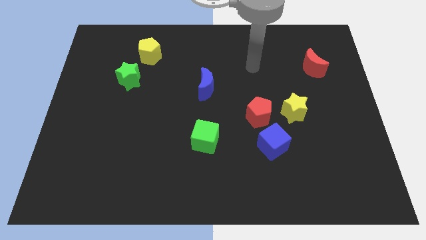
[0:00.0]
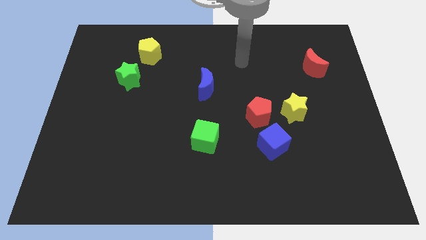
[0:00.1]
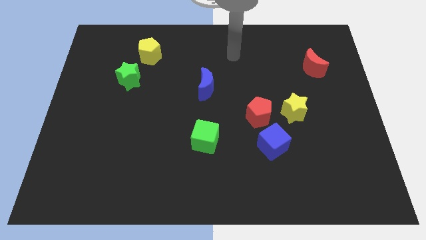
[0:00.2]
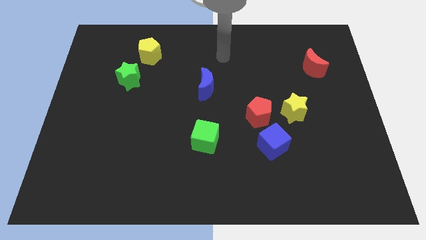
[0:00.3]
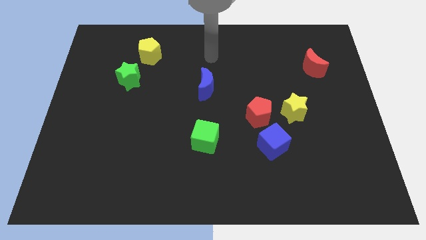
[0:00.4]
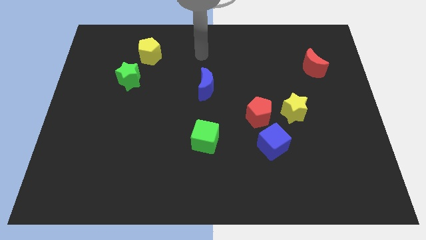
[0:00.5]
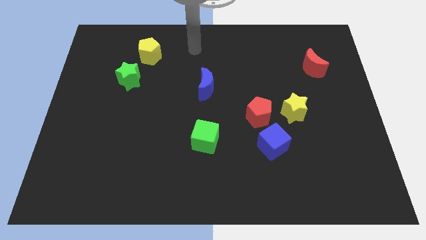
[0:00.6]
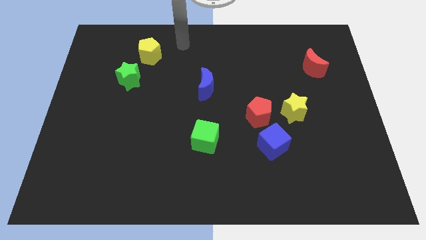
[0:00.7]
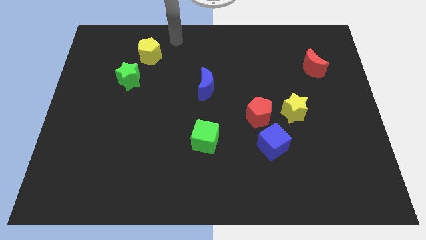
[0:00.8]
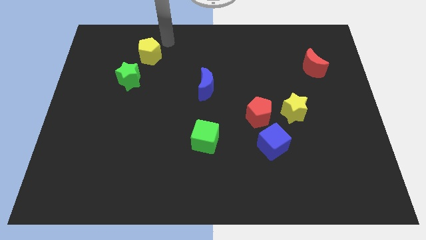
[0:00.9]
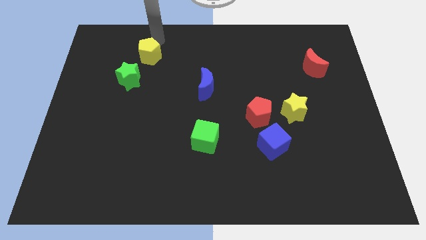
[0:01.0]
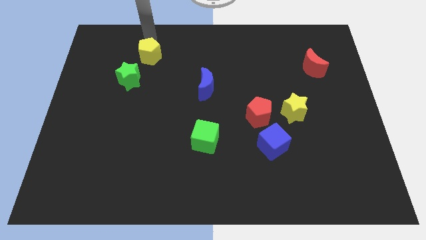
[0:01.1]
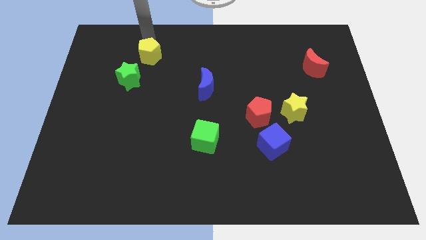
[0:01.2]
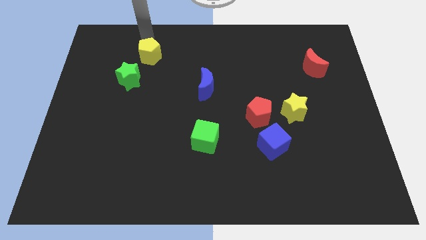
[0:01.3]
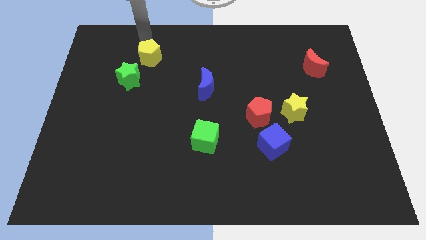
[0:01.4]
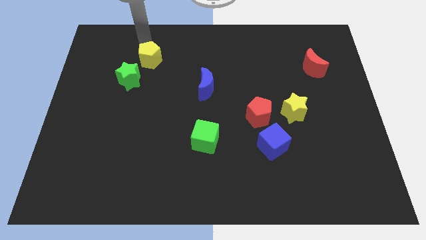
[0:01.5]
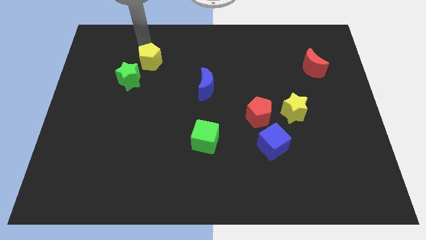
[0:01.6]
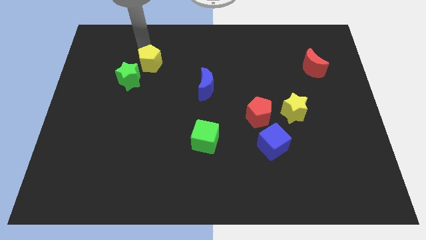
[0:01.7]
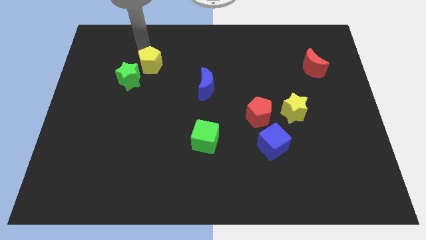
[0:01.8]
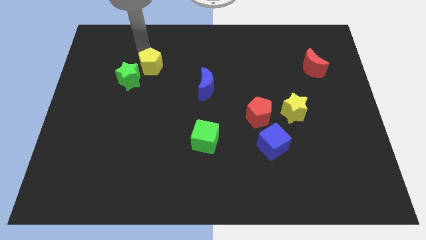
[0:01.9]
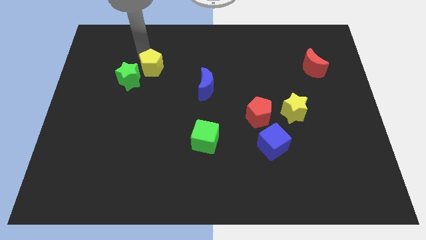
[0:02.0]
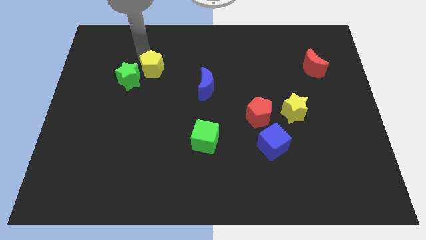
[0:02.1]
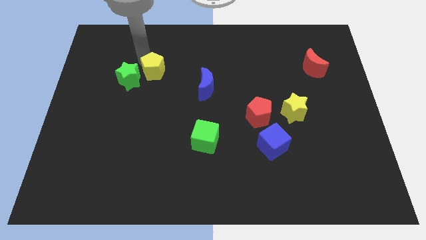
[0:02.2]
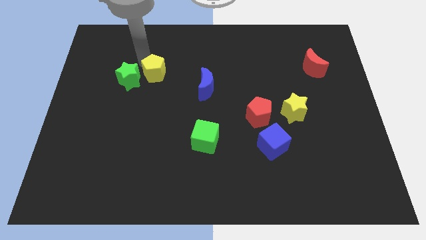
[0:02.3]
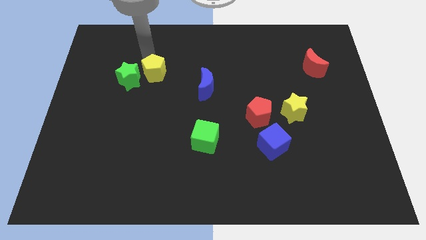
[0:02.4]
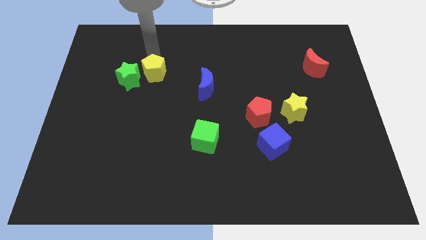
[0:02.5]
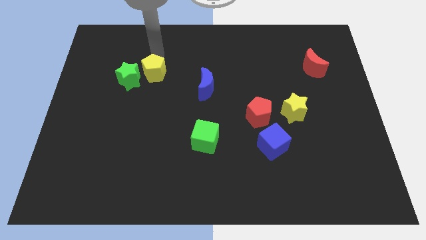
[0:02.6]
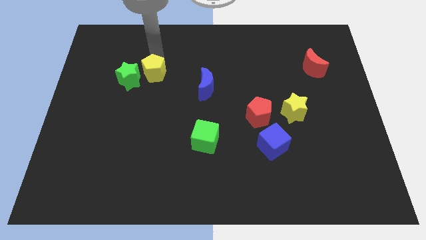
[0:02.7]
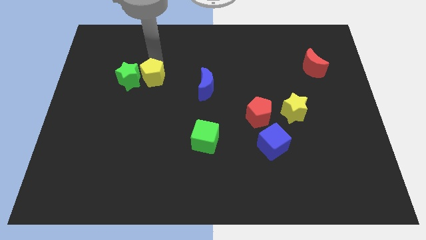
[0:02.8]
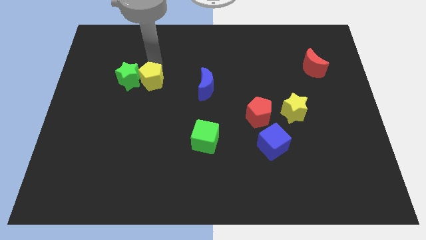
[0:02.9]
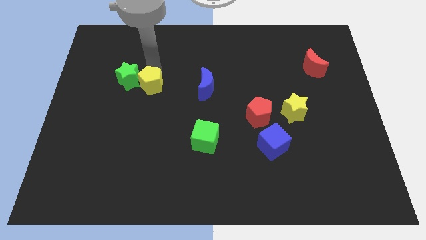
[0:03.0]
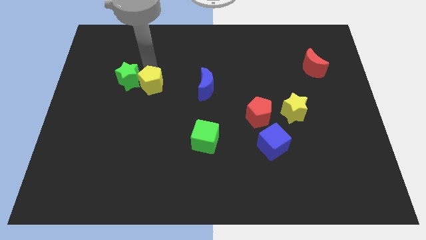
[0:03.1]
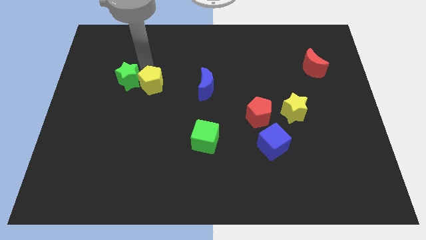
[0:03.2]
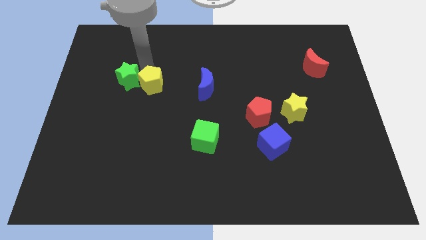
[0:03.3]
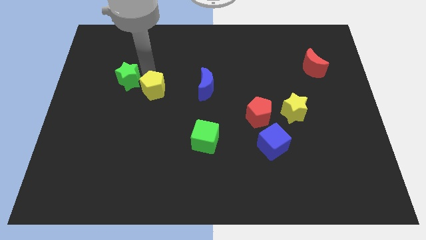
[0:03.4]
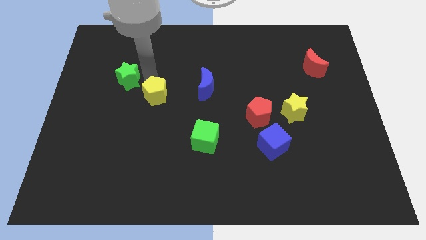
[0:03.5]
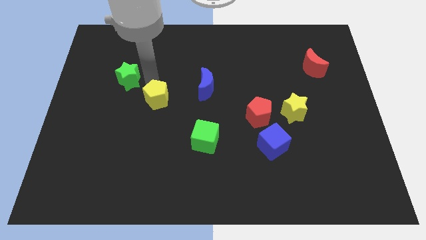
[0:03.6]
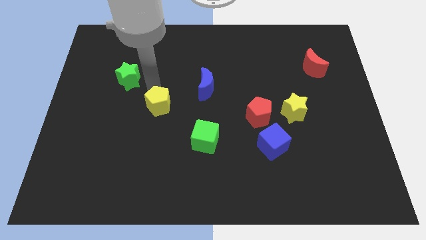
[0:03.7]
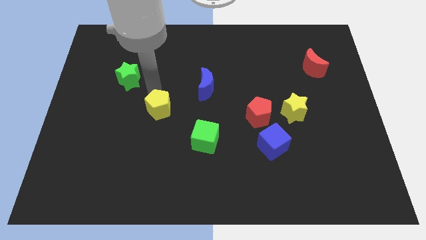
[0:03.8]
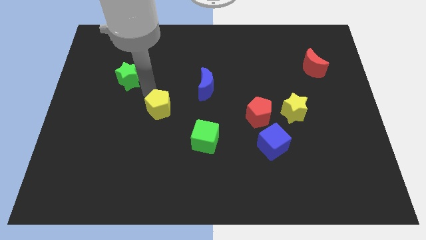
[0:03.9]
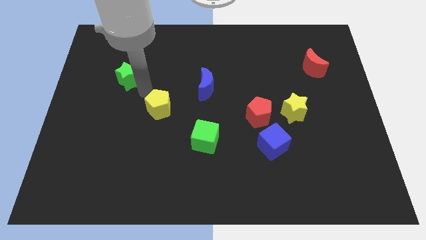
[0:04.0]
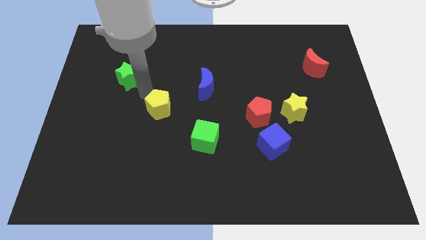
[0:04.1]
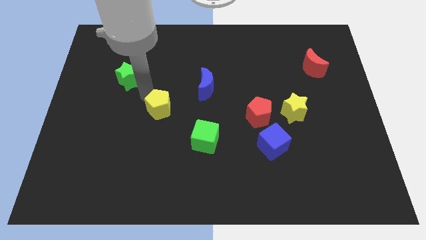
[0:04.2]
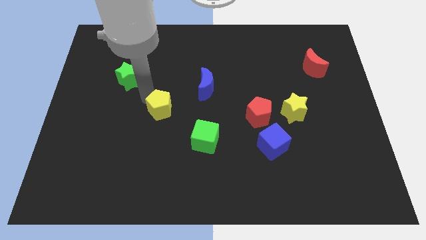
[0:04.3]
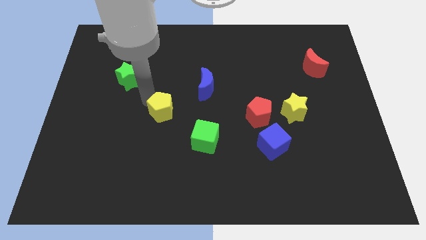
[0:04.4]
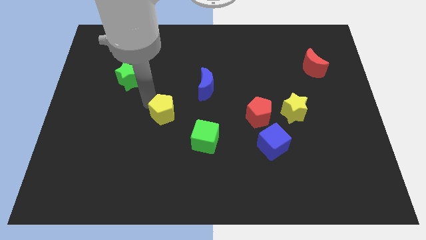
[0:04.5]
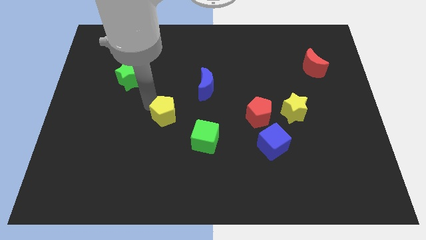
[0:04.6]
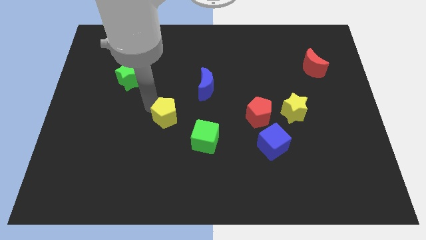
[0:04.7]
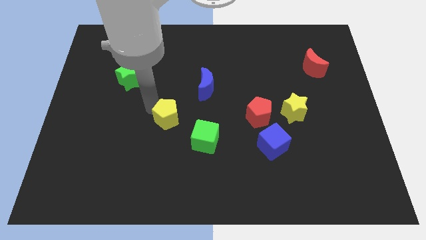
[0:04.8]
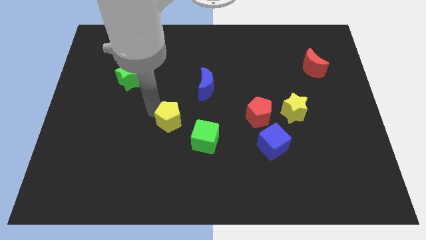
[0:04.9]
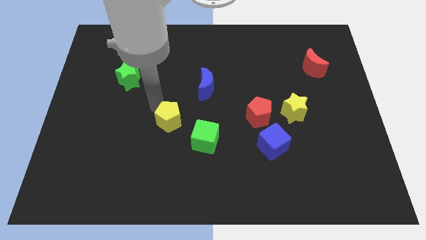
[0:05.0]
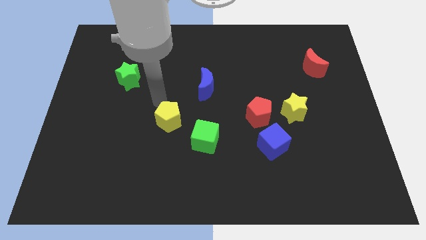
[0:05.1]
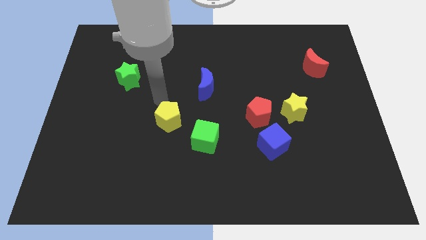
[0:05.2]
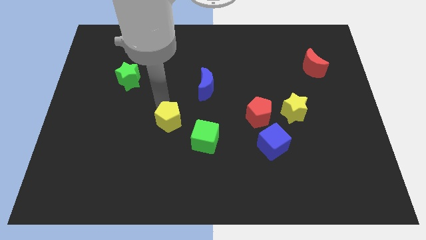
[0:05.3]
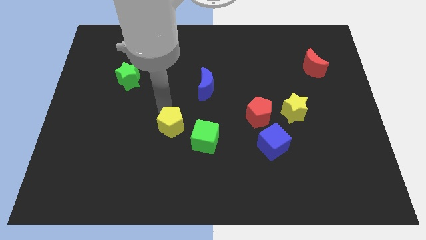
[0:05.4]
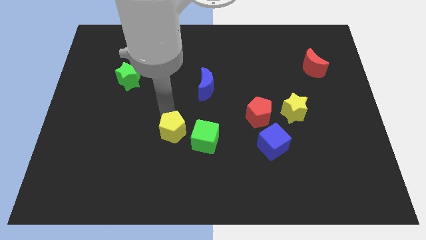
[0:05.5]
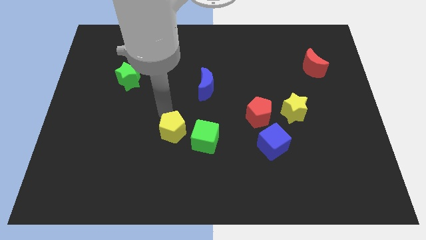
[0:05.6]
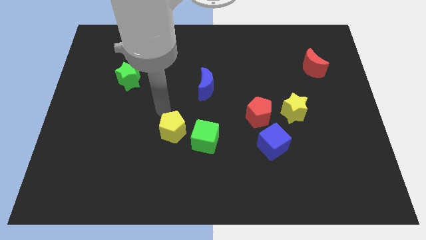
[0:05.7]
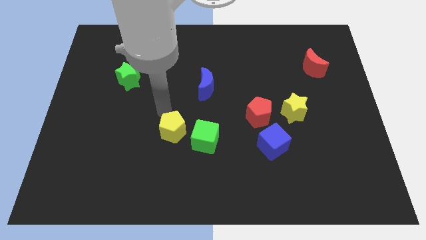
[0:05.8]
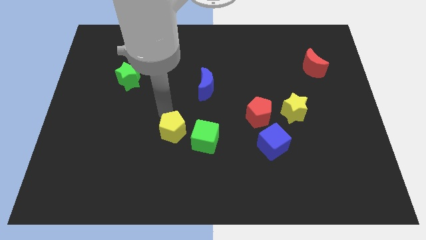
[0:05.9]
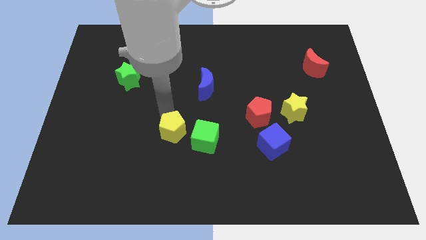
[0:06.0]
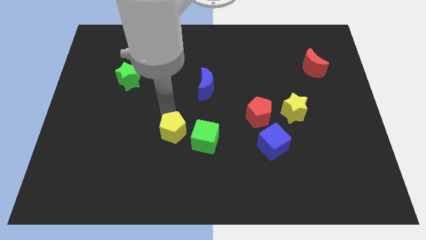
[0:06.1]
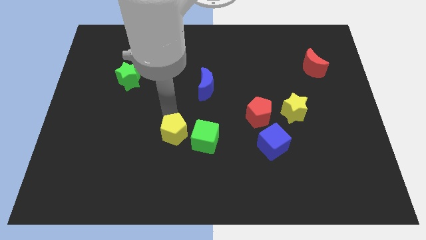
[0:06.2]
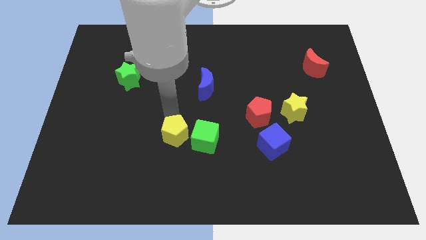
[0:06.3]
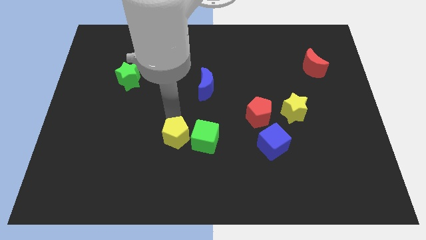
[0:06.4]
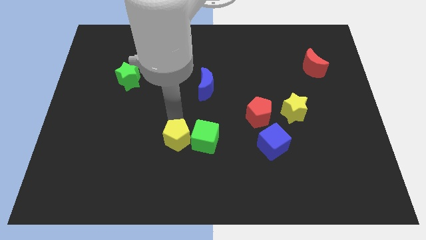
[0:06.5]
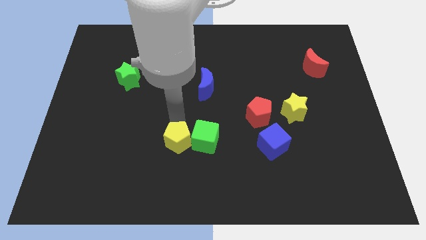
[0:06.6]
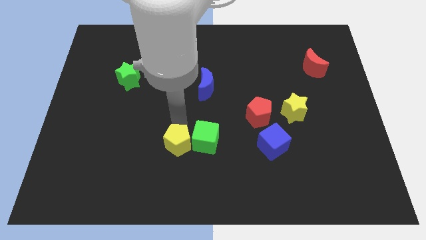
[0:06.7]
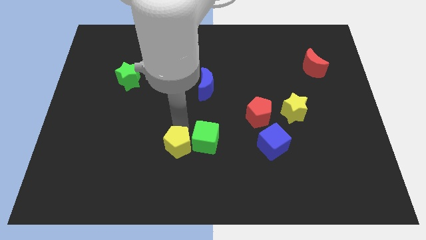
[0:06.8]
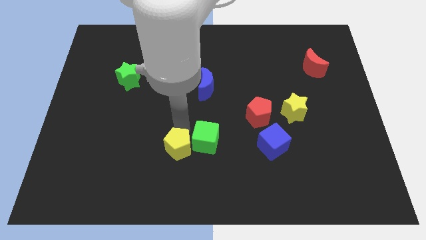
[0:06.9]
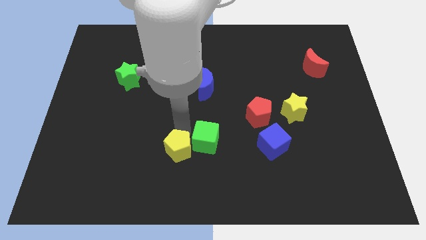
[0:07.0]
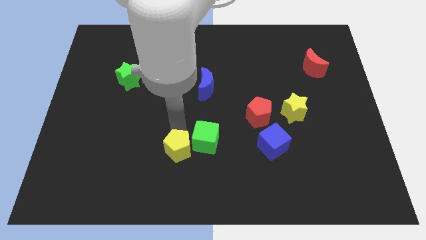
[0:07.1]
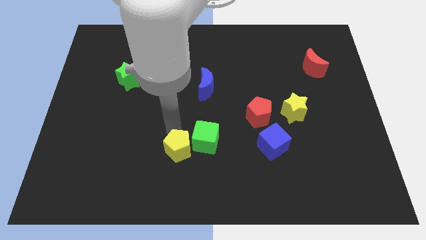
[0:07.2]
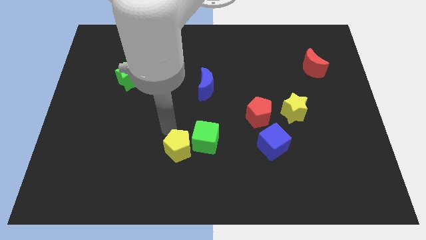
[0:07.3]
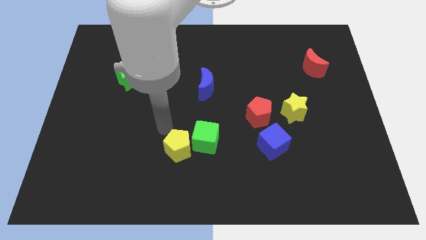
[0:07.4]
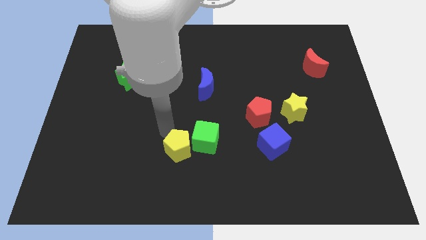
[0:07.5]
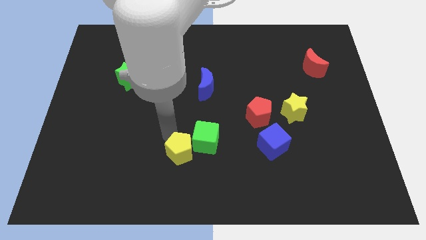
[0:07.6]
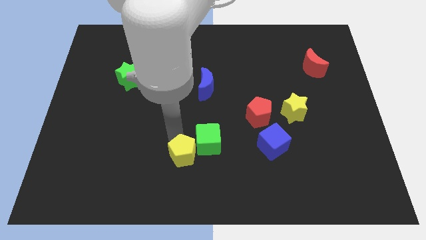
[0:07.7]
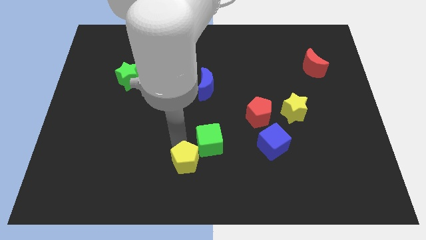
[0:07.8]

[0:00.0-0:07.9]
push the yellow pentagon to the bottom side
